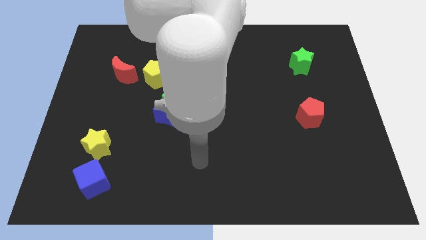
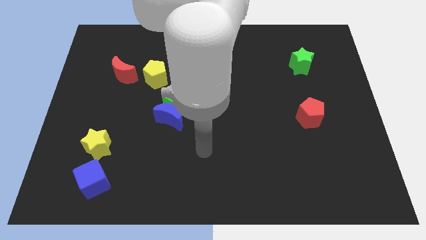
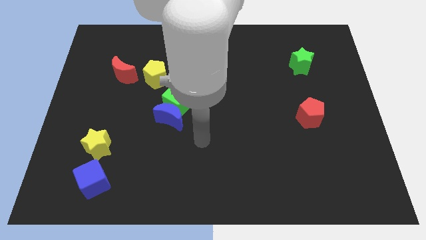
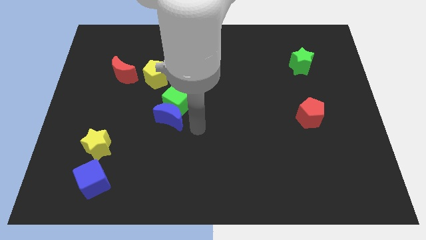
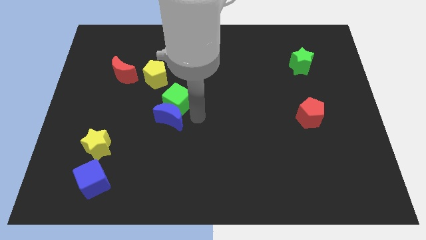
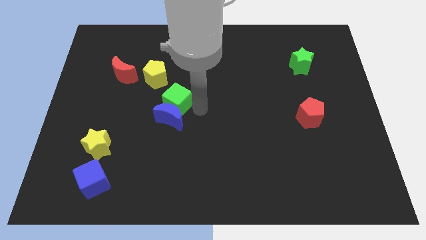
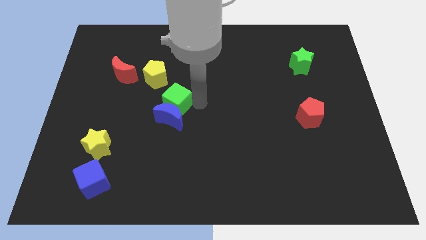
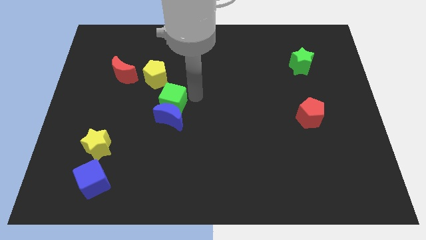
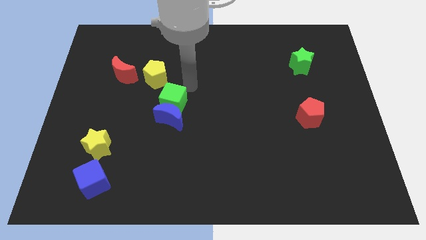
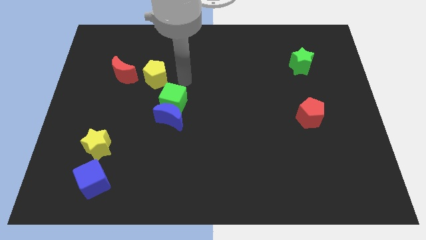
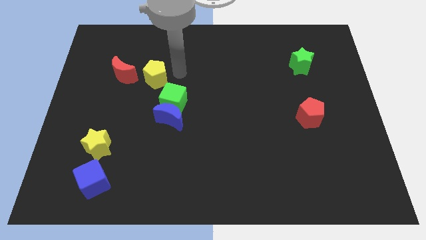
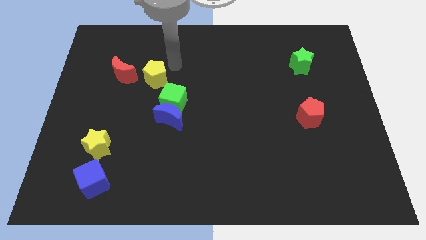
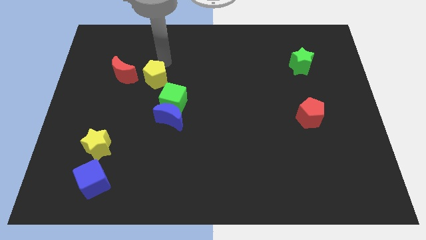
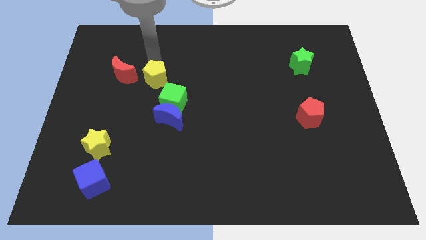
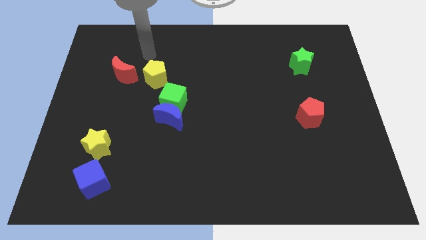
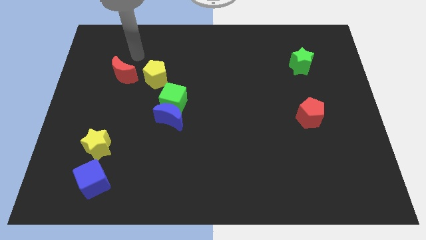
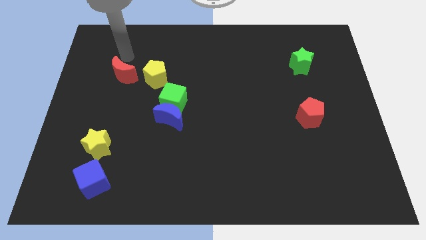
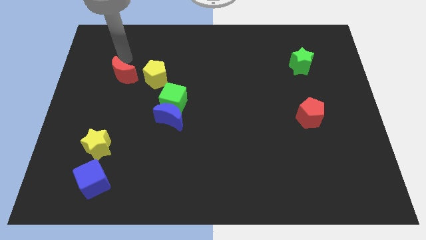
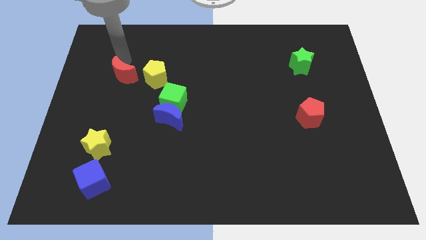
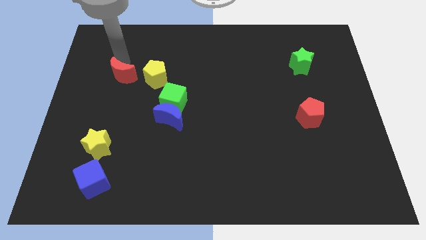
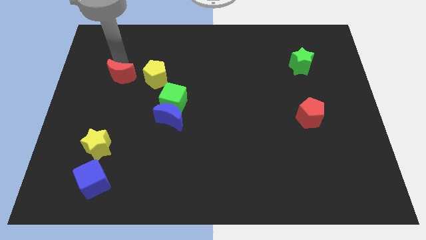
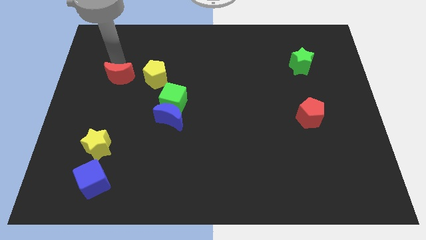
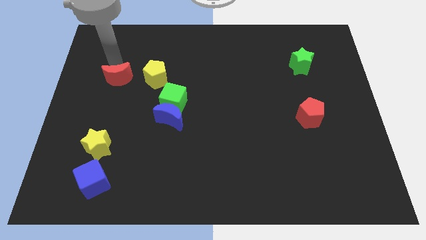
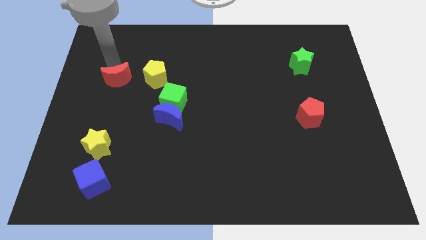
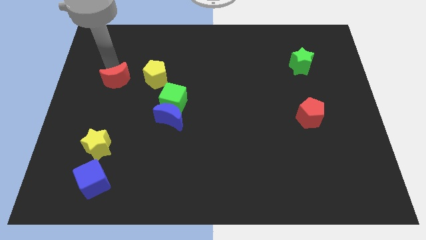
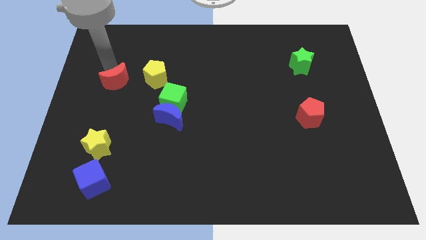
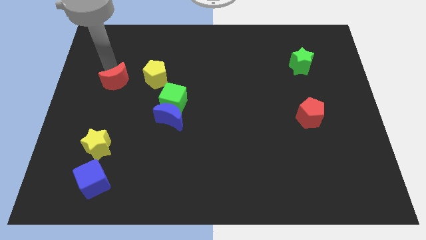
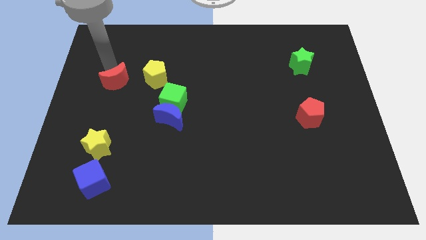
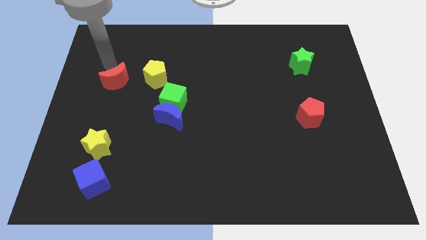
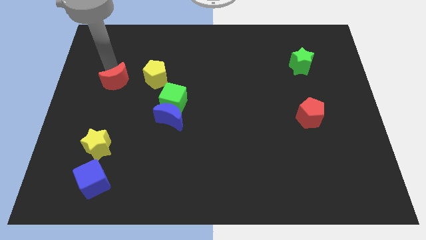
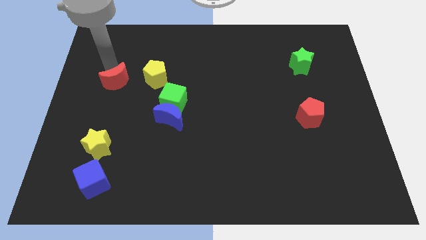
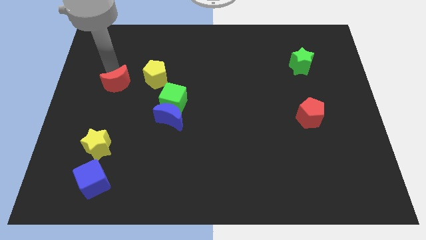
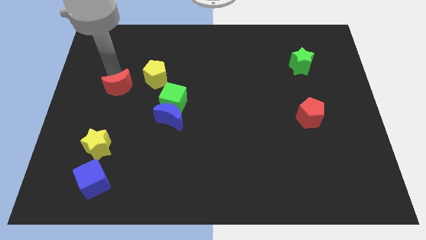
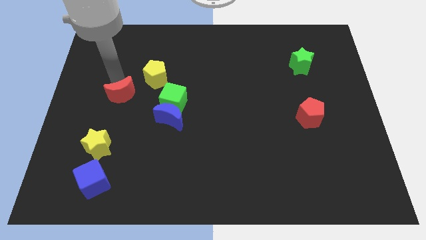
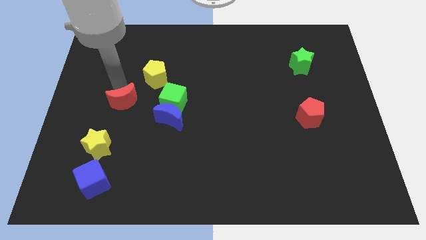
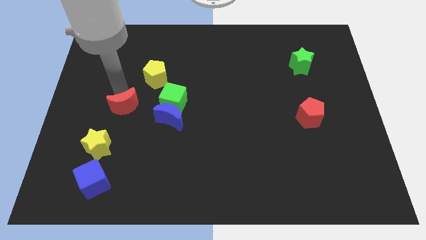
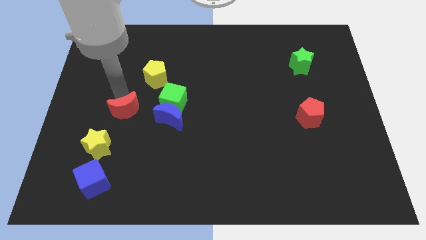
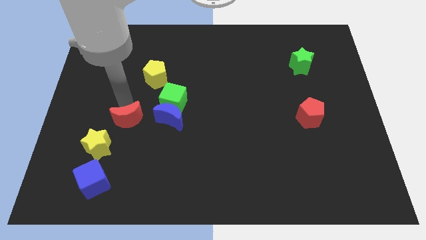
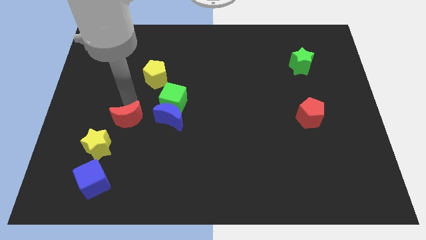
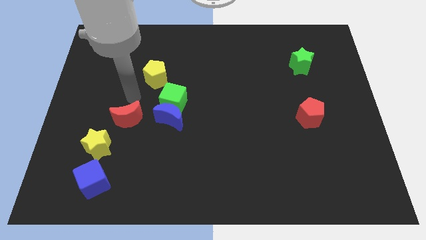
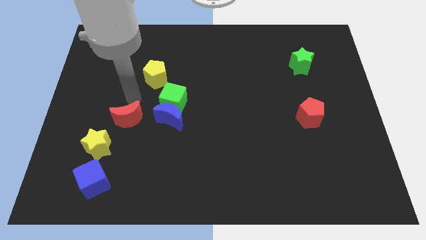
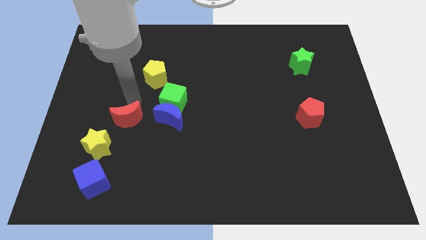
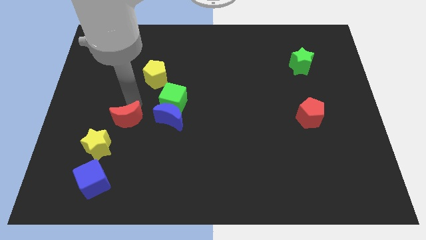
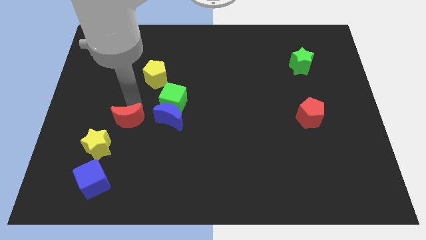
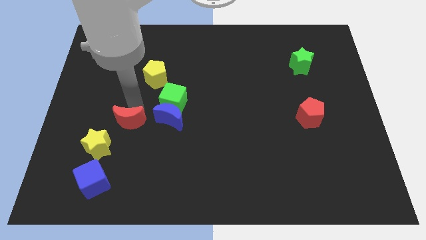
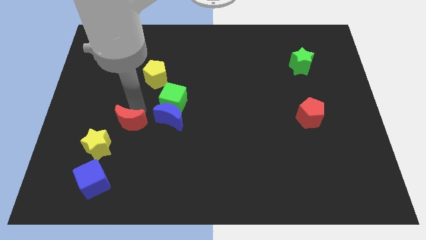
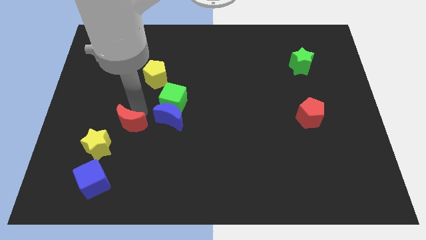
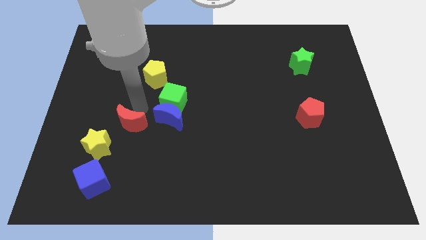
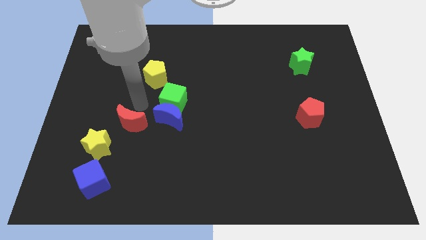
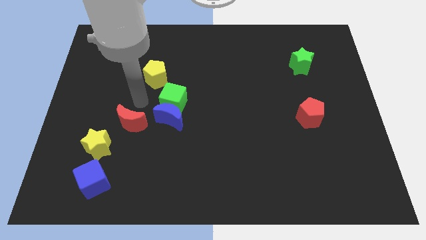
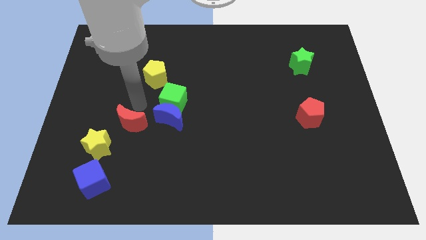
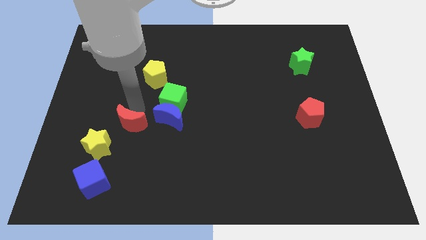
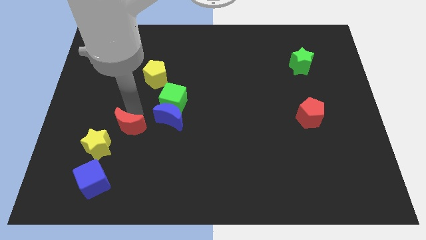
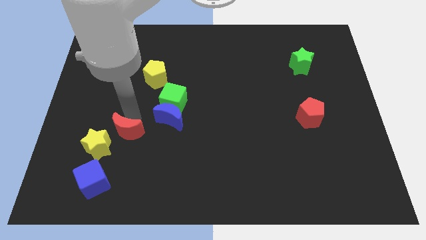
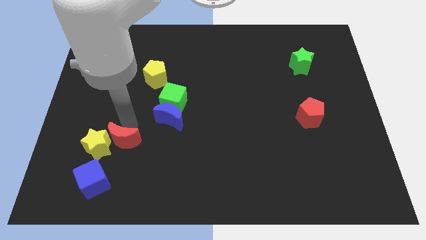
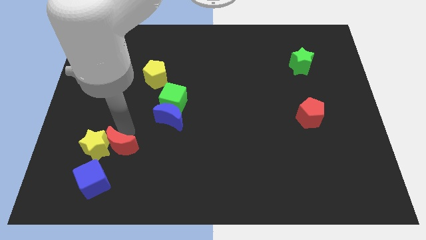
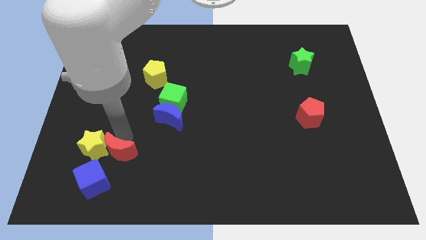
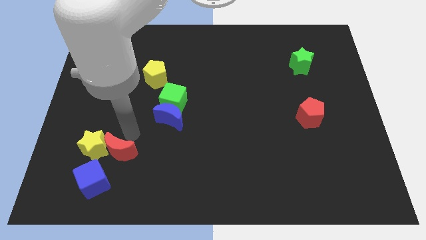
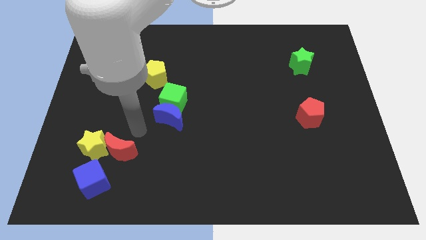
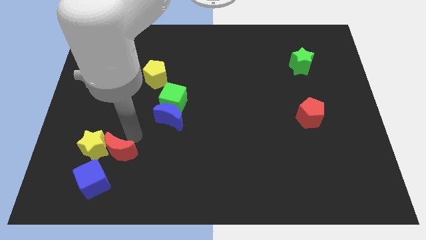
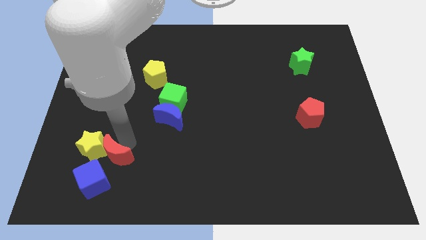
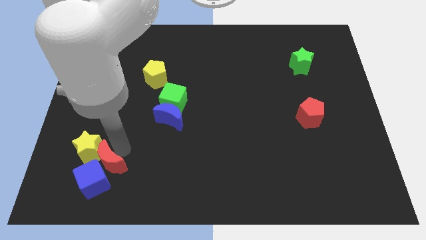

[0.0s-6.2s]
push the red moon close to the blue cube
